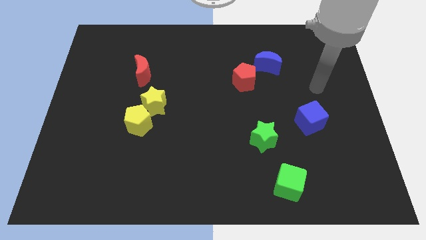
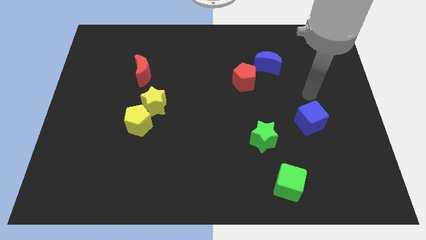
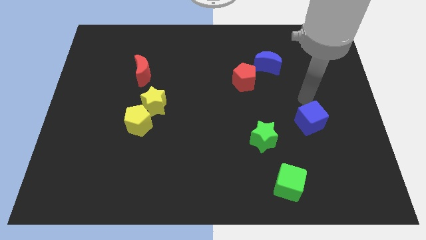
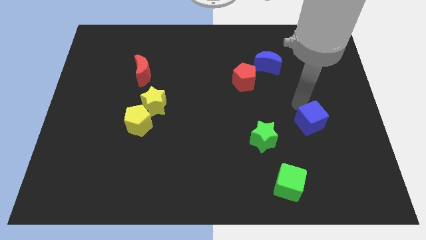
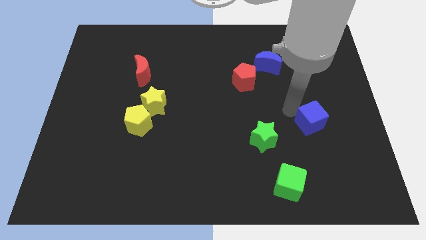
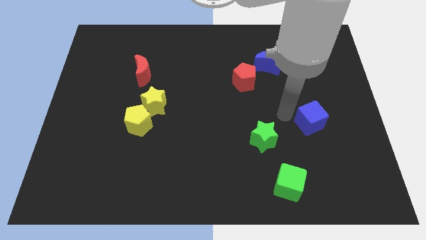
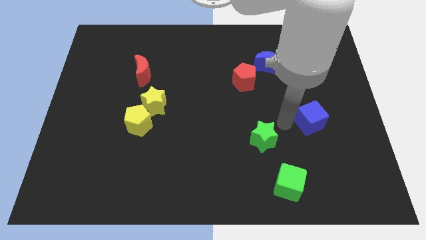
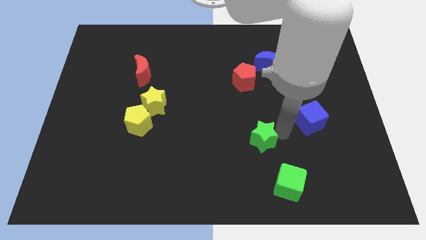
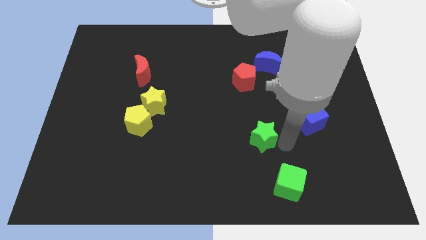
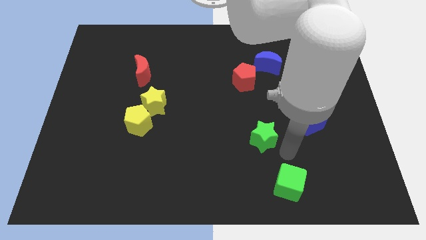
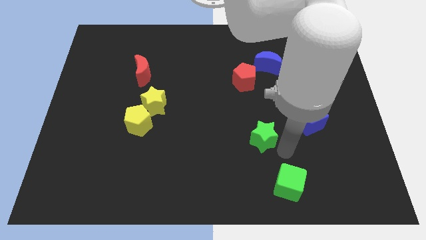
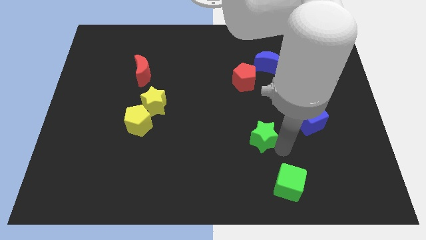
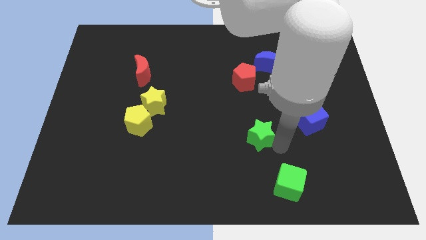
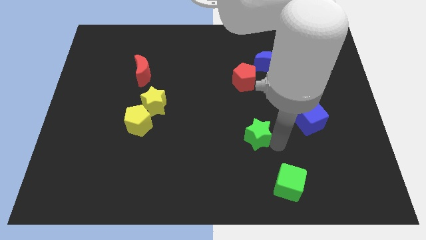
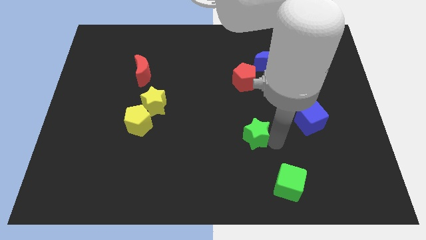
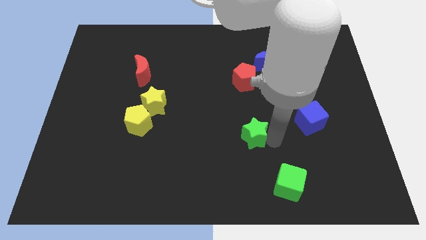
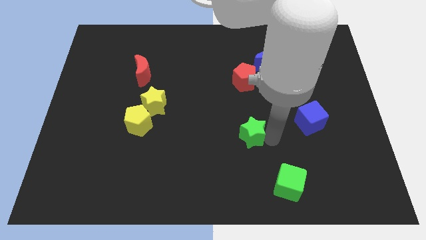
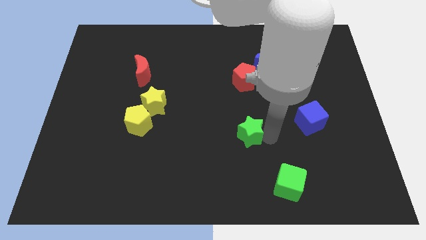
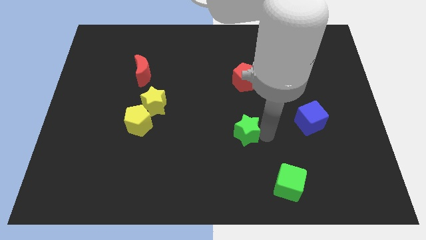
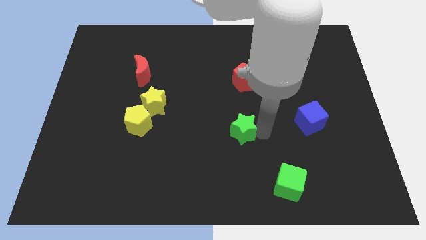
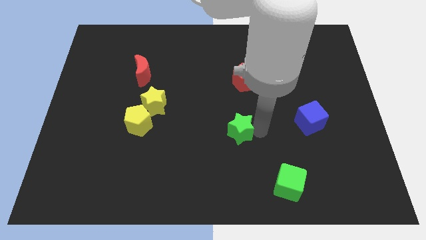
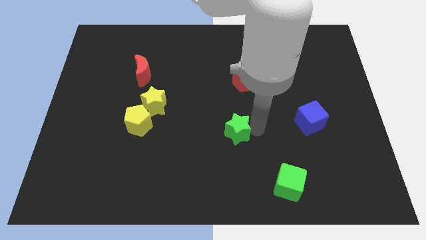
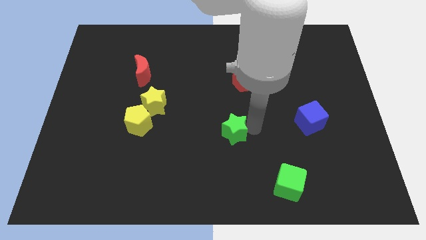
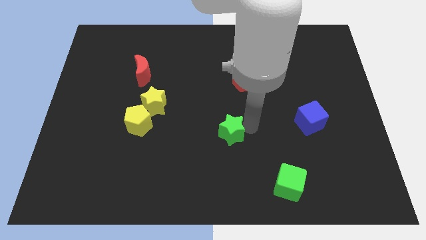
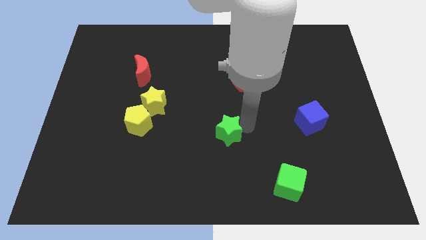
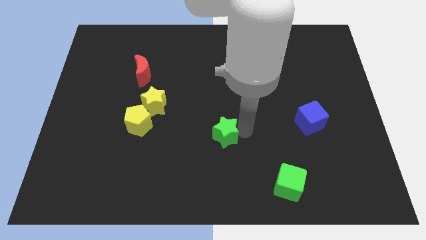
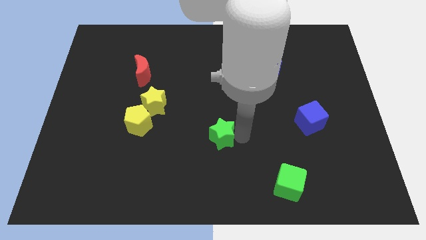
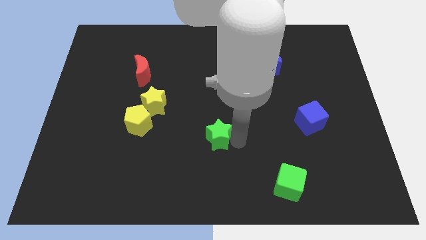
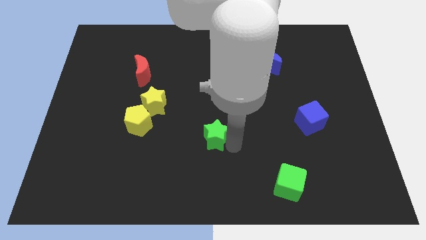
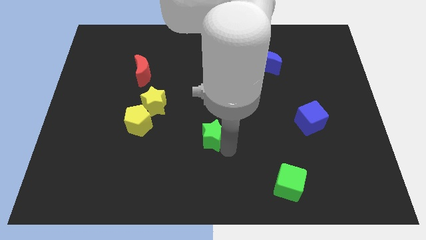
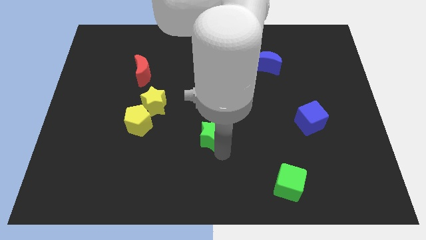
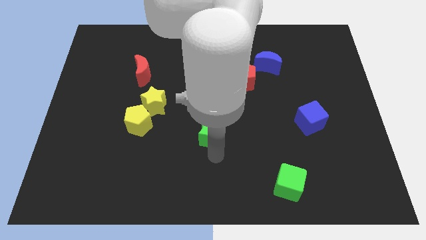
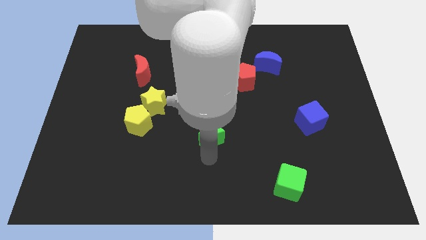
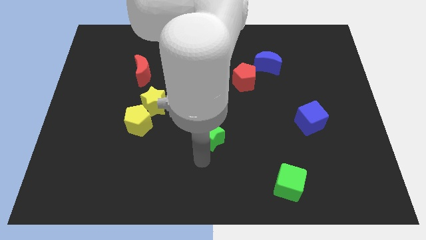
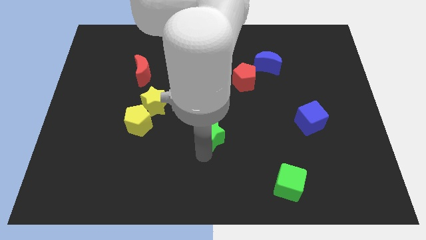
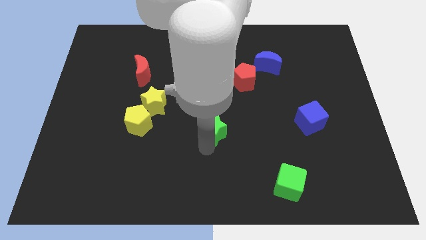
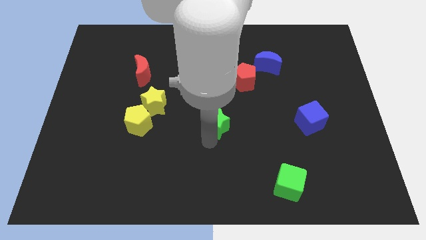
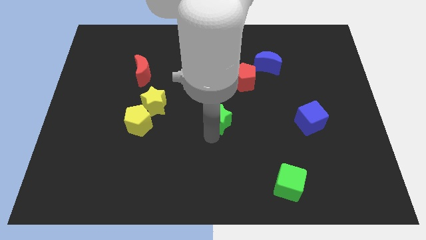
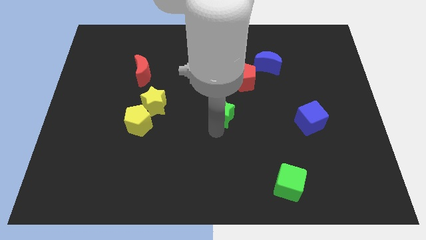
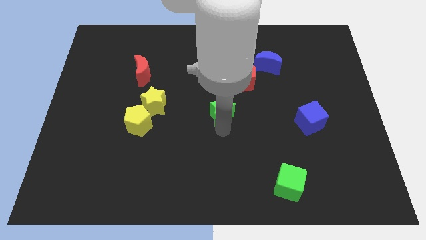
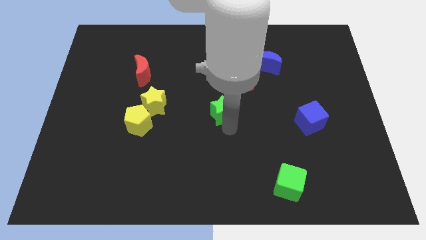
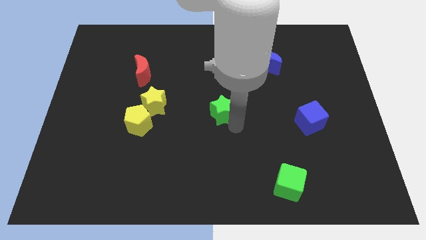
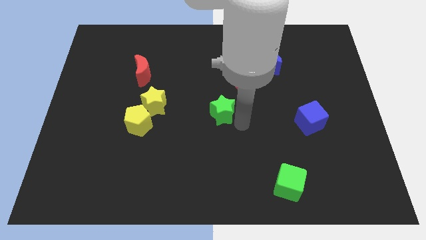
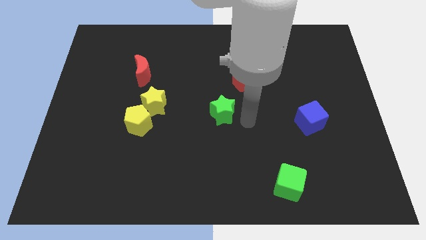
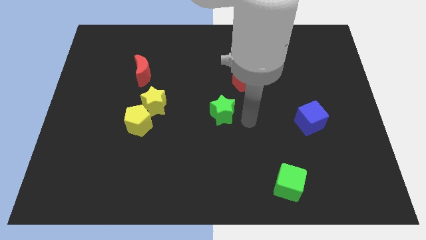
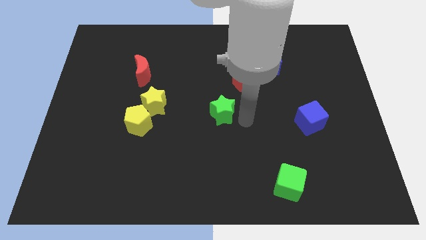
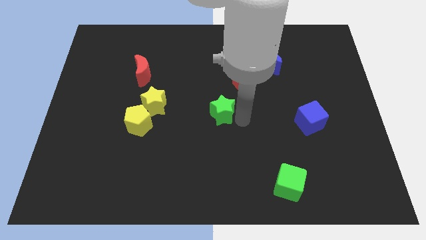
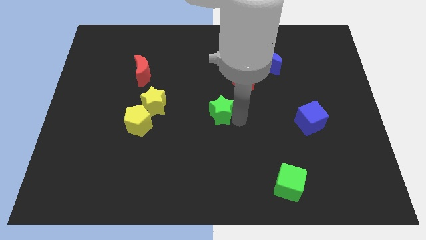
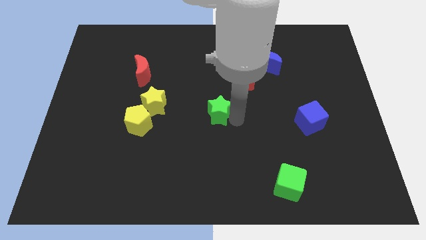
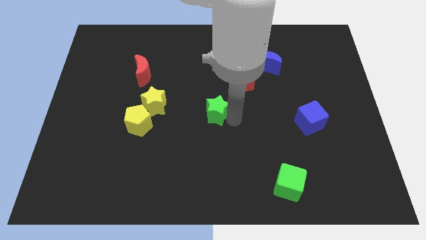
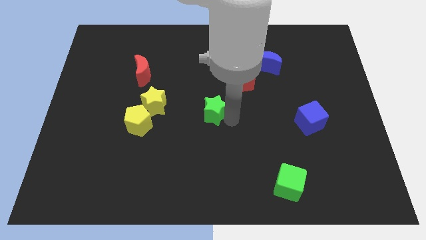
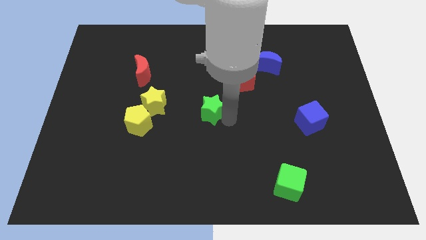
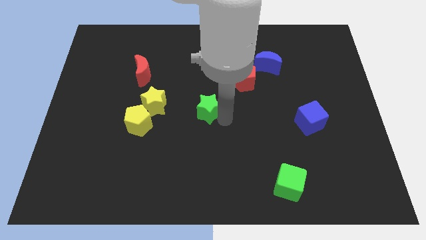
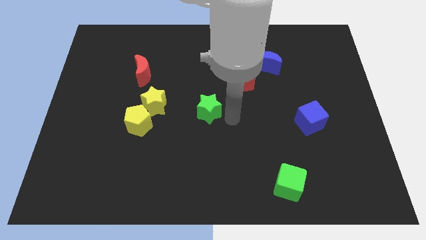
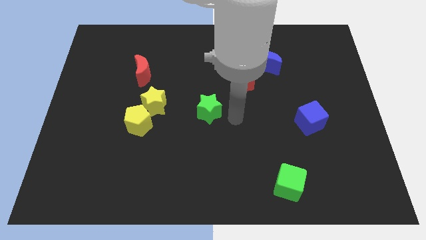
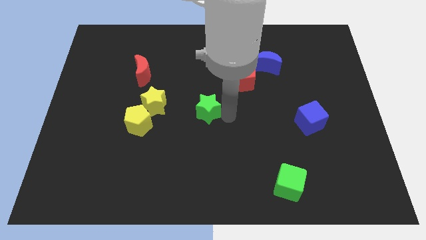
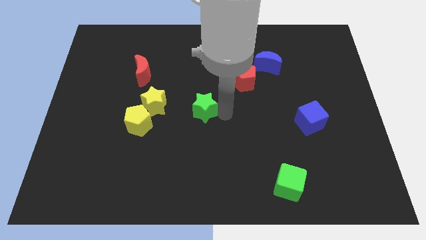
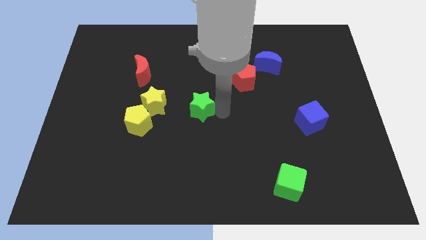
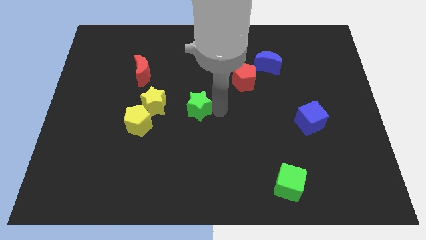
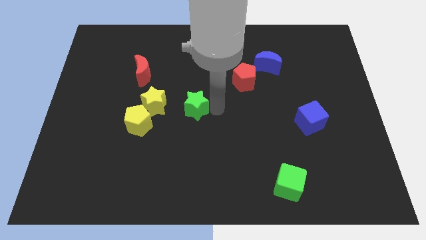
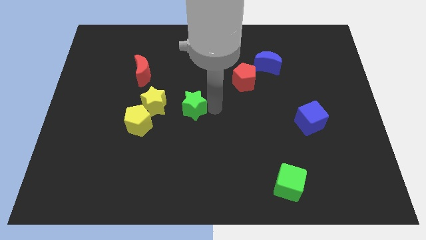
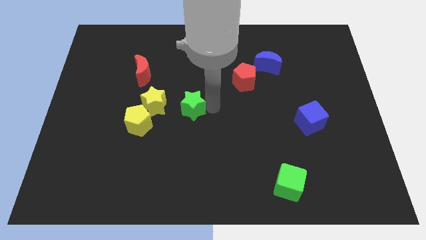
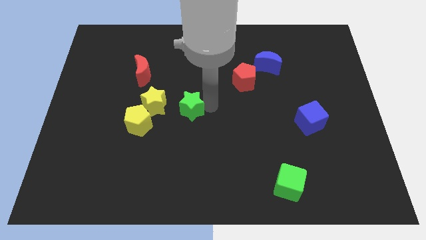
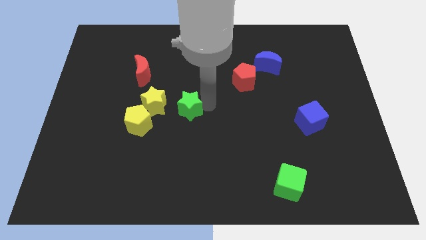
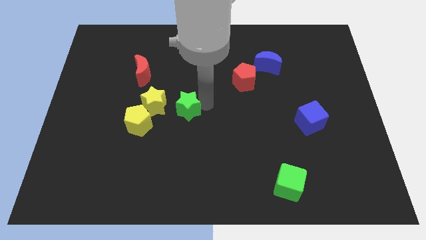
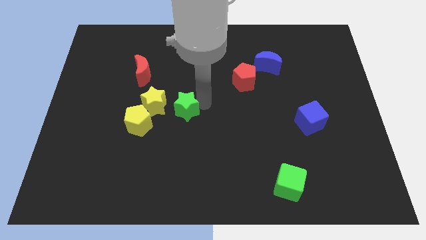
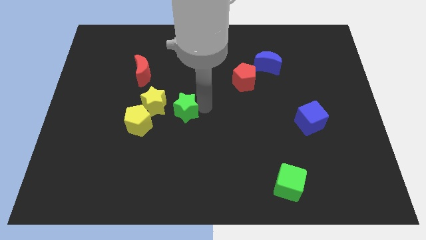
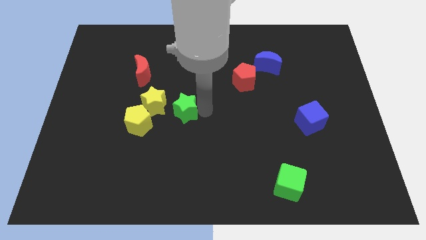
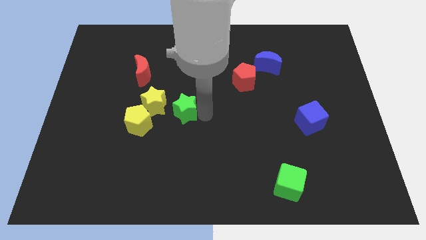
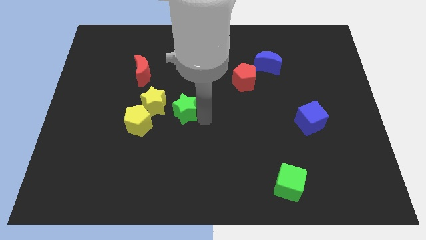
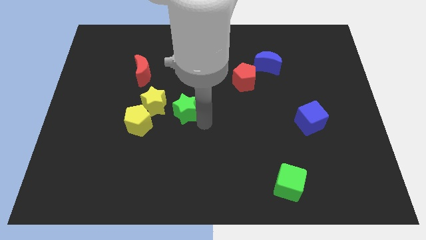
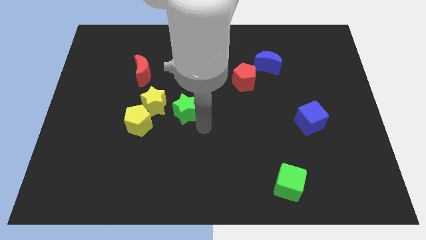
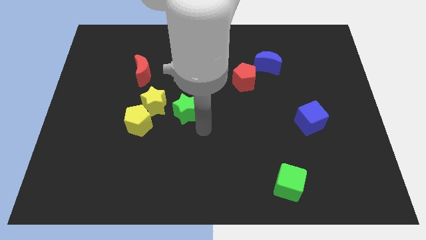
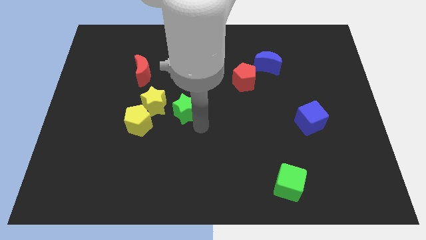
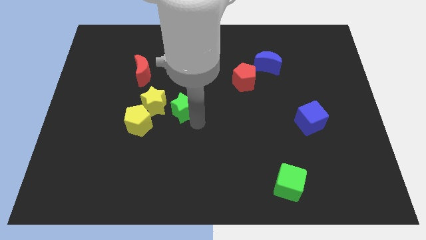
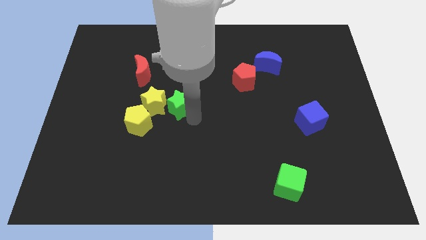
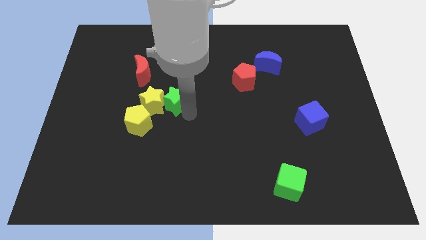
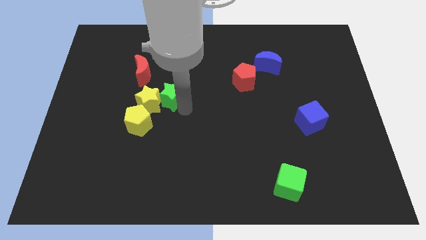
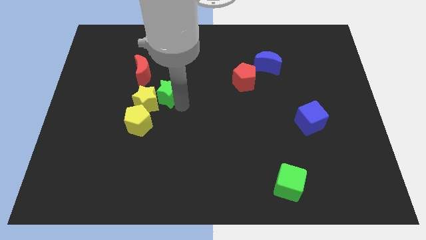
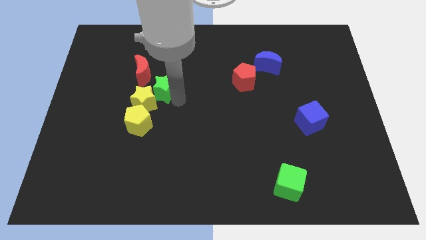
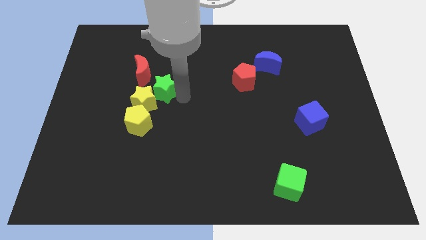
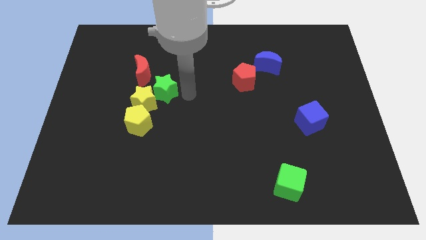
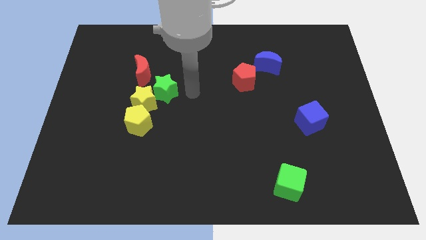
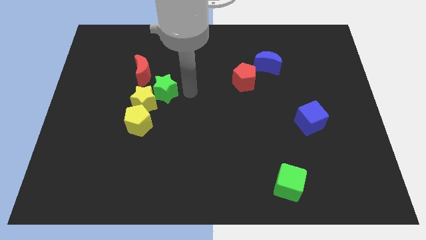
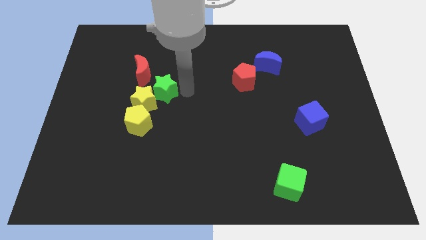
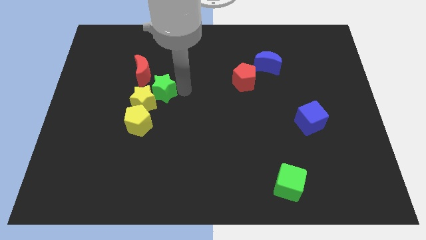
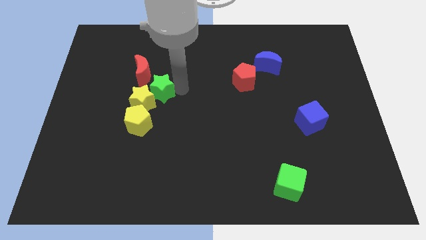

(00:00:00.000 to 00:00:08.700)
slide the green star to the top of the yellow pentagon
